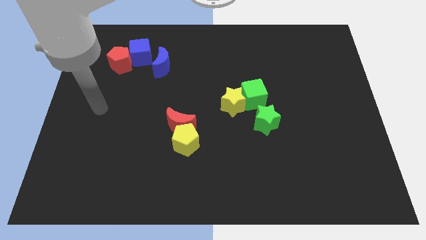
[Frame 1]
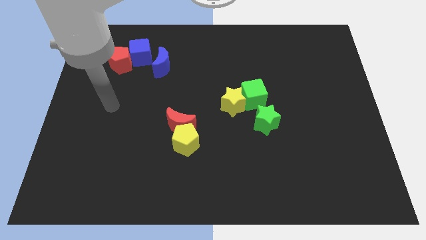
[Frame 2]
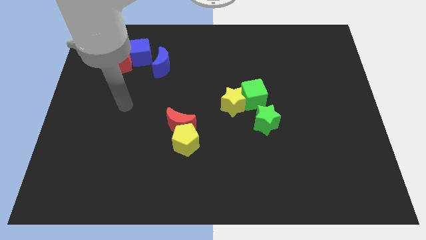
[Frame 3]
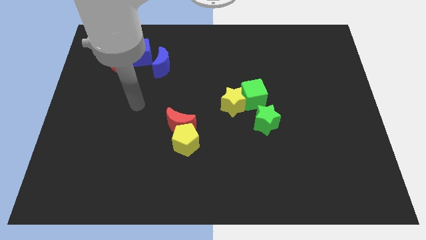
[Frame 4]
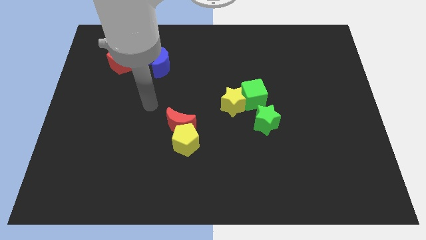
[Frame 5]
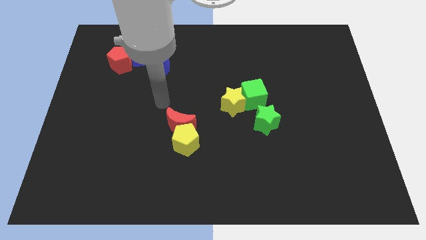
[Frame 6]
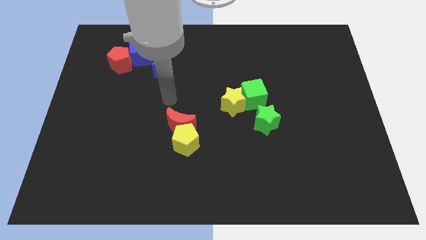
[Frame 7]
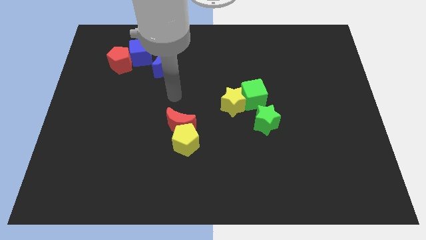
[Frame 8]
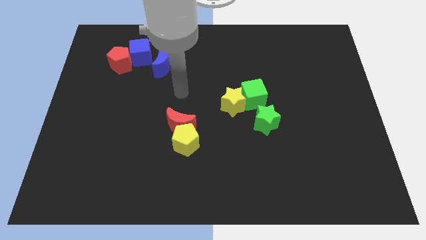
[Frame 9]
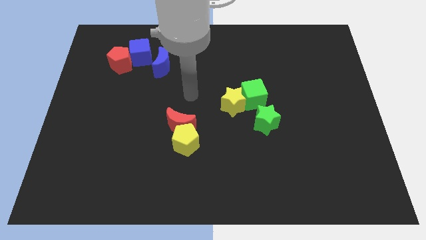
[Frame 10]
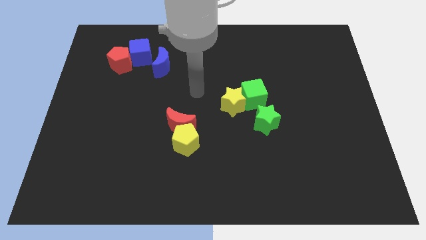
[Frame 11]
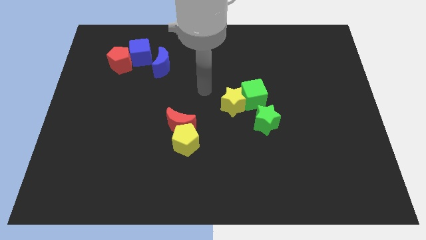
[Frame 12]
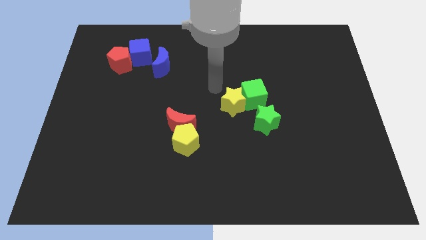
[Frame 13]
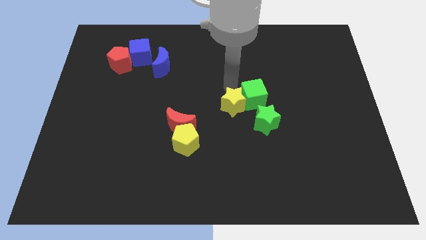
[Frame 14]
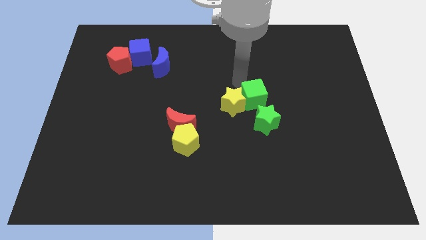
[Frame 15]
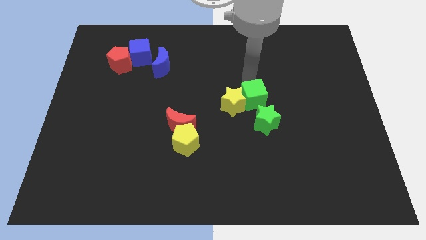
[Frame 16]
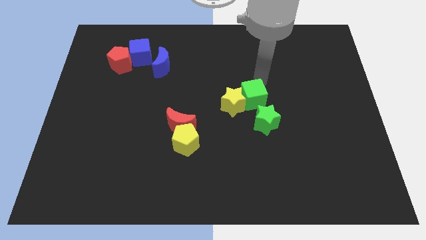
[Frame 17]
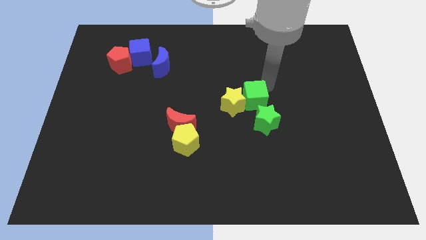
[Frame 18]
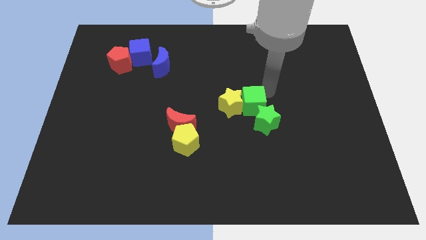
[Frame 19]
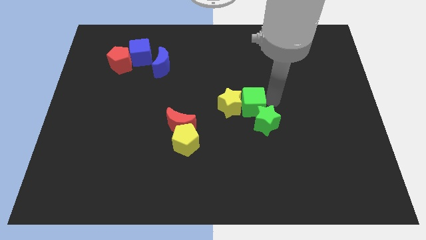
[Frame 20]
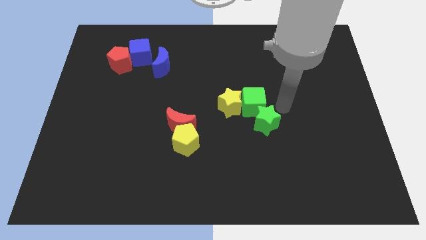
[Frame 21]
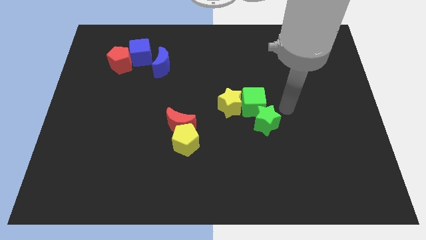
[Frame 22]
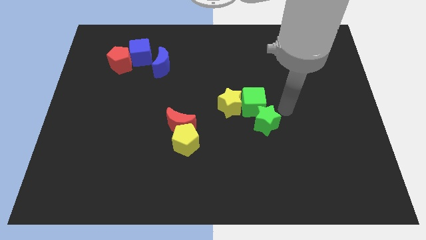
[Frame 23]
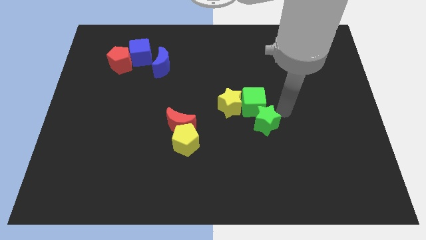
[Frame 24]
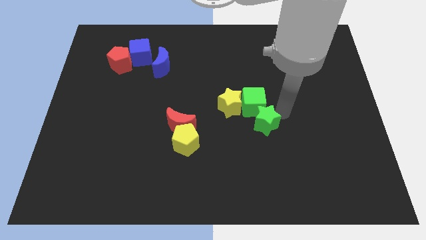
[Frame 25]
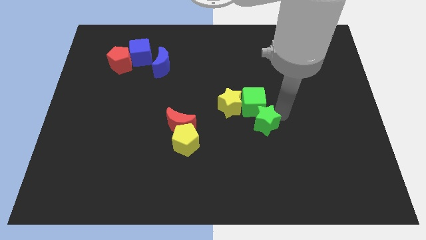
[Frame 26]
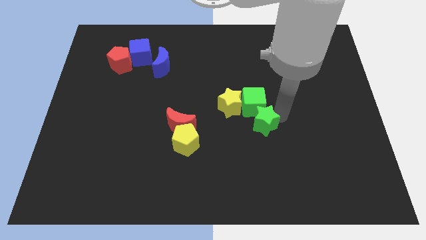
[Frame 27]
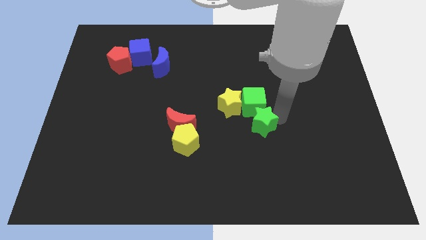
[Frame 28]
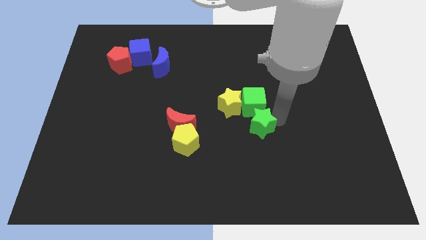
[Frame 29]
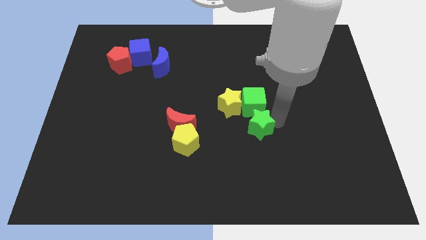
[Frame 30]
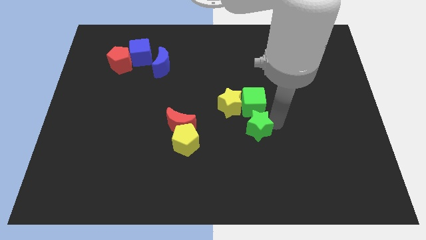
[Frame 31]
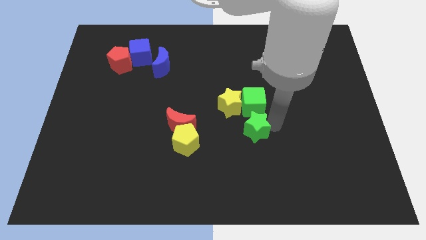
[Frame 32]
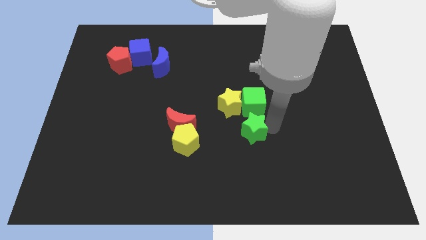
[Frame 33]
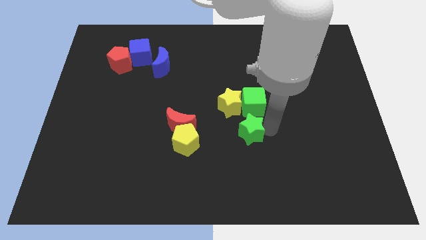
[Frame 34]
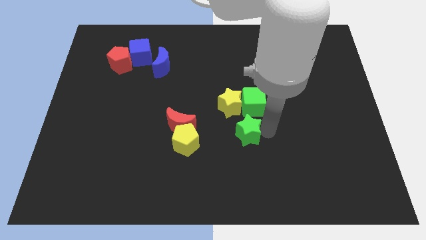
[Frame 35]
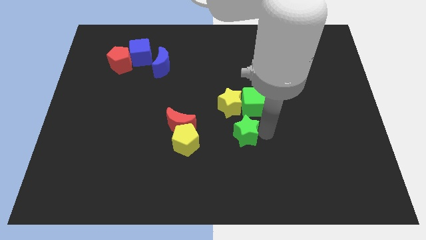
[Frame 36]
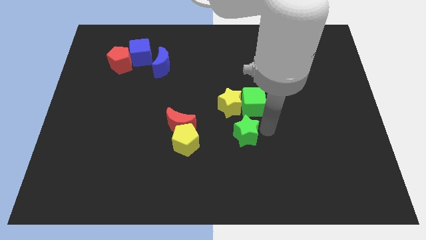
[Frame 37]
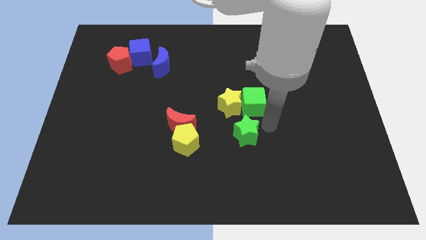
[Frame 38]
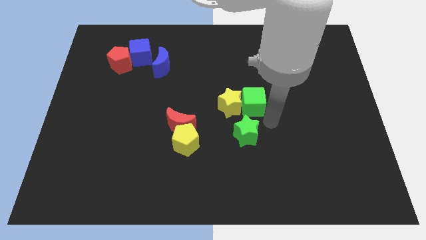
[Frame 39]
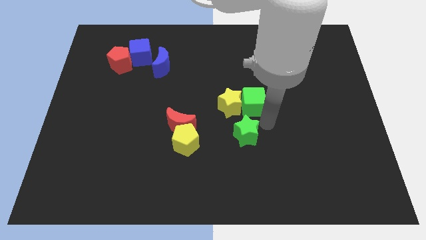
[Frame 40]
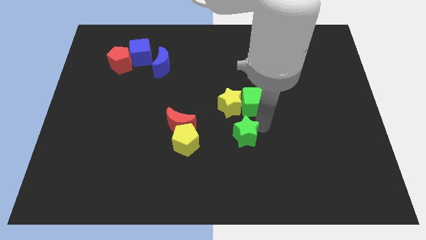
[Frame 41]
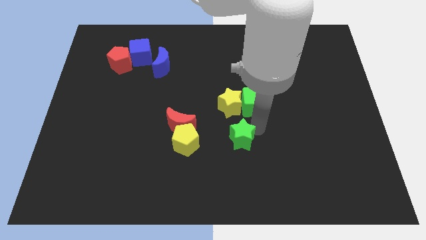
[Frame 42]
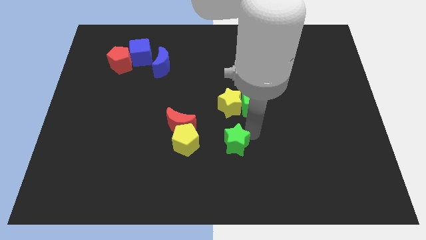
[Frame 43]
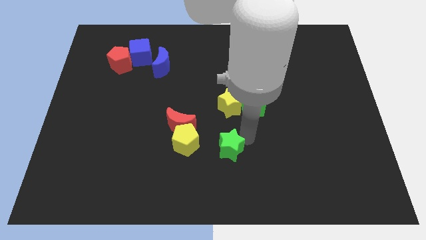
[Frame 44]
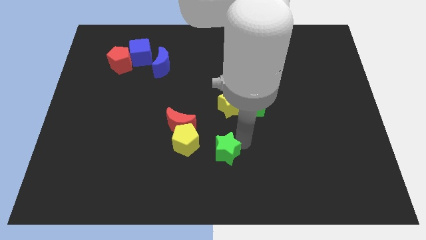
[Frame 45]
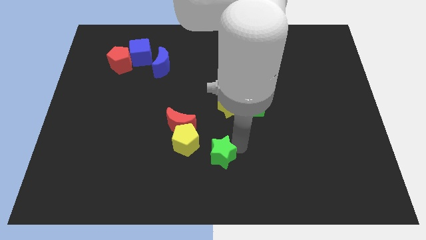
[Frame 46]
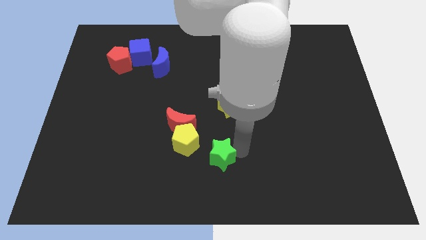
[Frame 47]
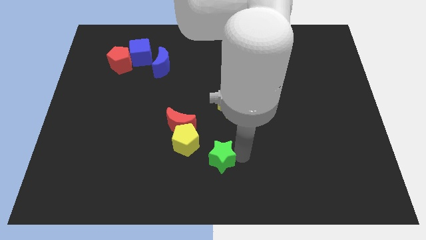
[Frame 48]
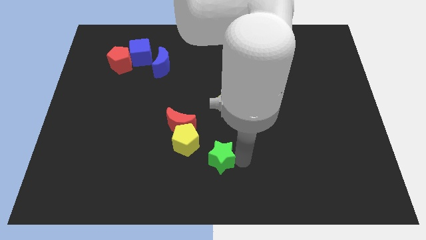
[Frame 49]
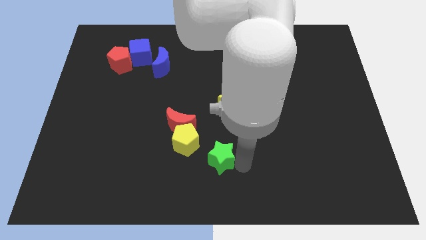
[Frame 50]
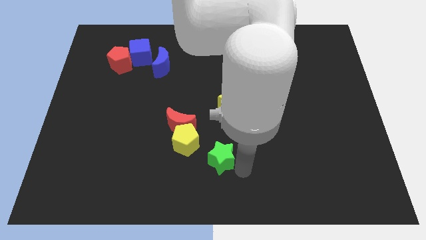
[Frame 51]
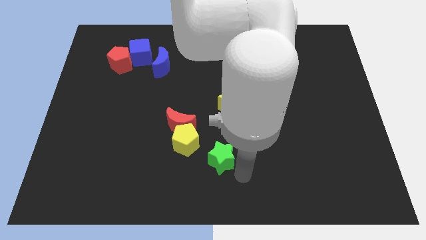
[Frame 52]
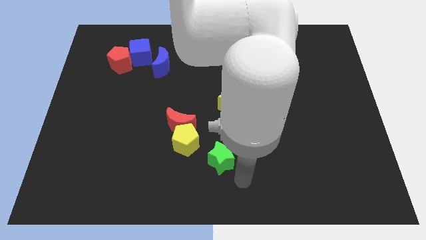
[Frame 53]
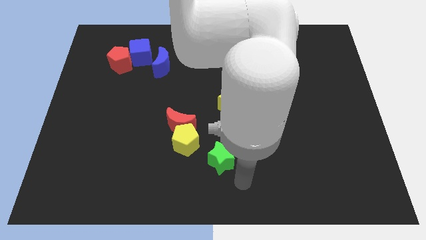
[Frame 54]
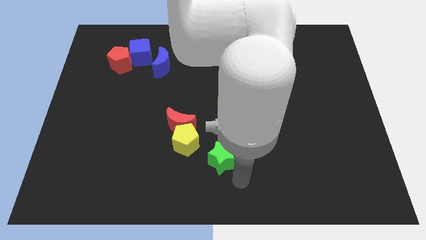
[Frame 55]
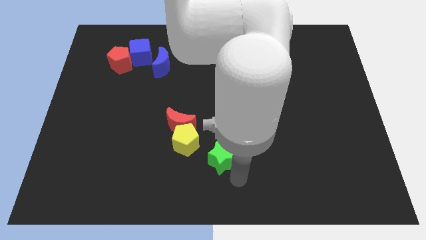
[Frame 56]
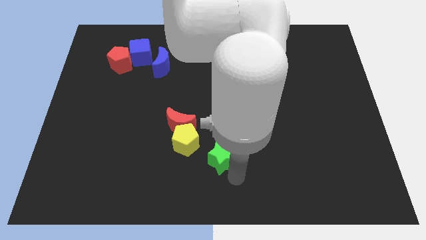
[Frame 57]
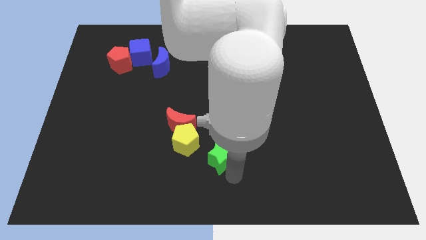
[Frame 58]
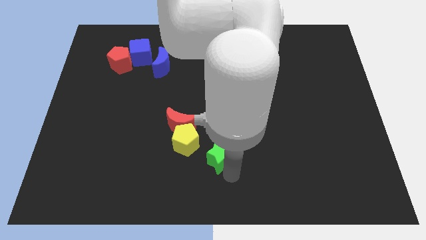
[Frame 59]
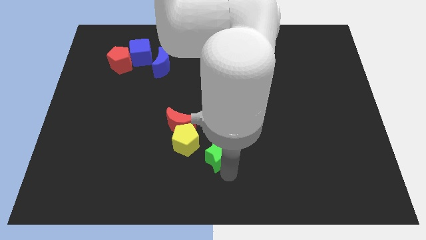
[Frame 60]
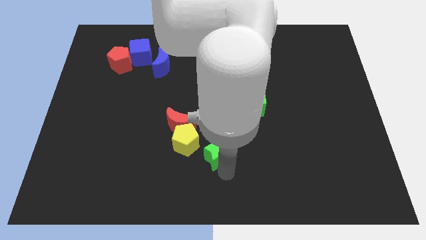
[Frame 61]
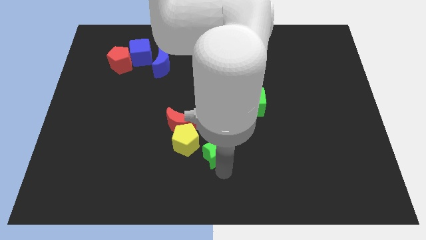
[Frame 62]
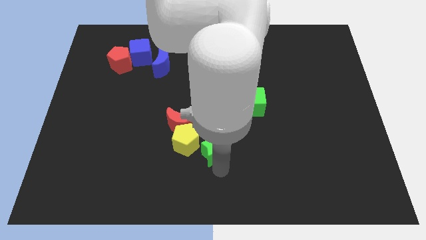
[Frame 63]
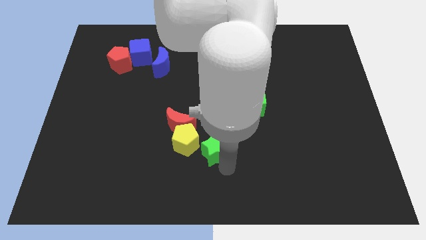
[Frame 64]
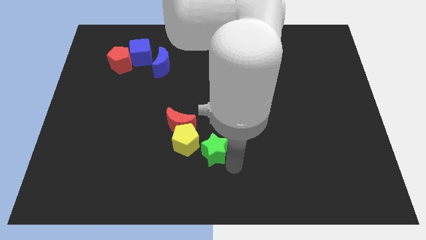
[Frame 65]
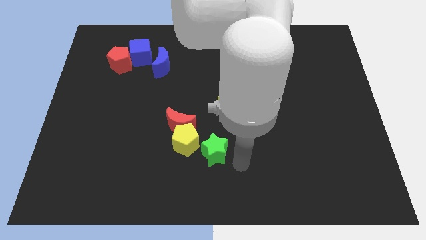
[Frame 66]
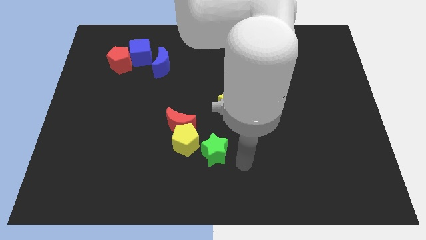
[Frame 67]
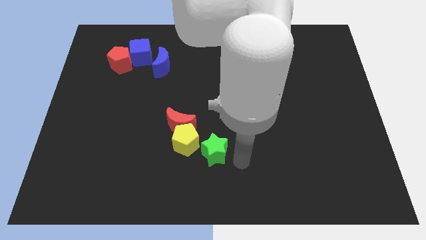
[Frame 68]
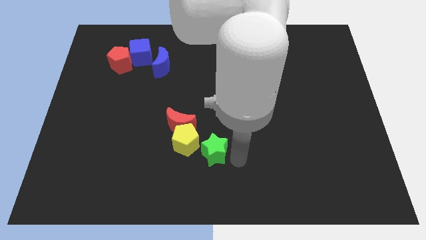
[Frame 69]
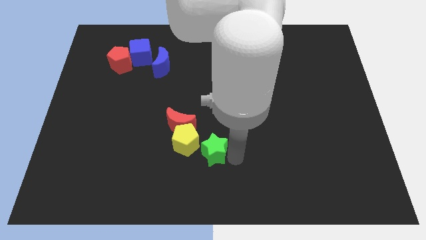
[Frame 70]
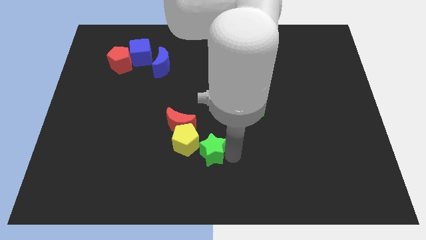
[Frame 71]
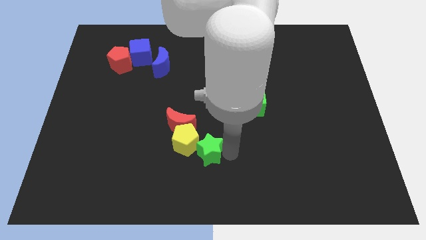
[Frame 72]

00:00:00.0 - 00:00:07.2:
slide the green star towards the yellow pentagon
